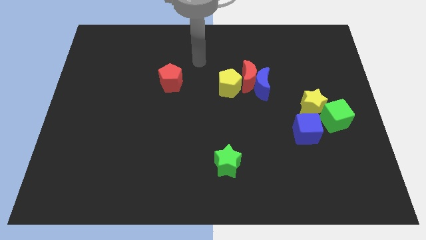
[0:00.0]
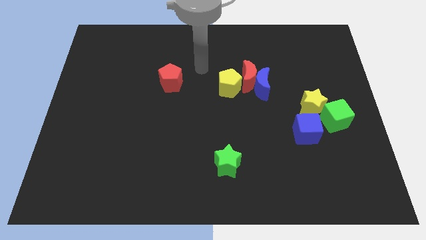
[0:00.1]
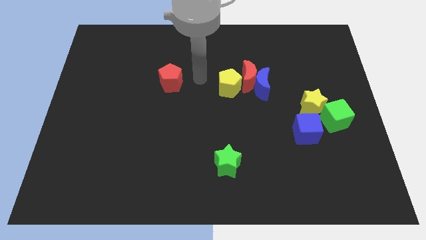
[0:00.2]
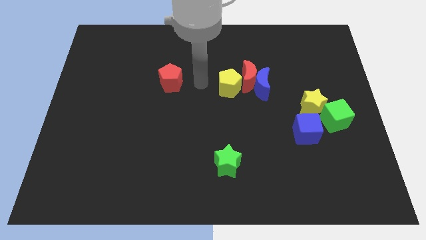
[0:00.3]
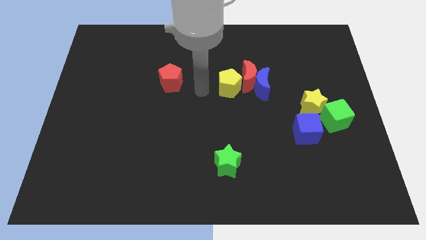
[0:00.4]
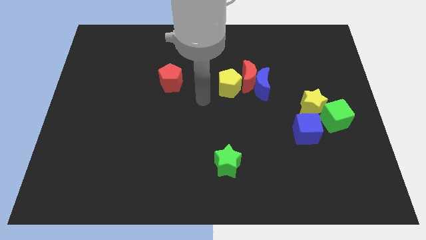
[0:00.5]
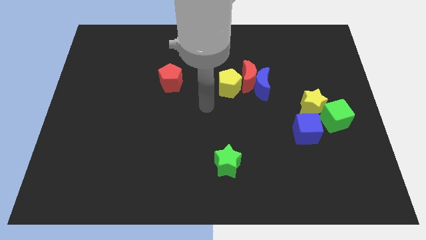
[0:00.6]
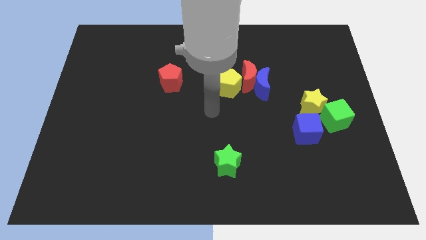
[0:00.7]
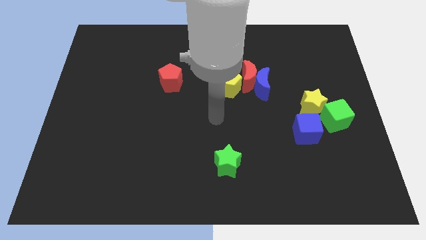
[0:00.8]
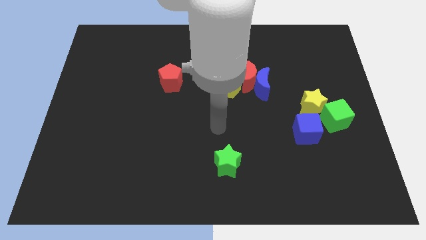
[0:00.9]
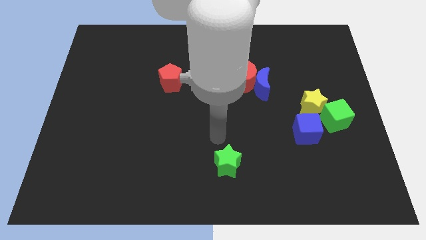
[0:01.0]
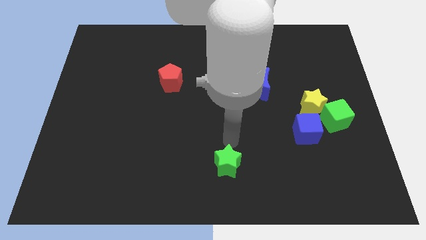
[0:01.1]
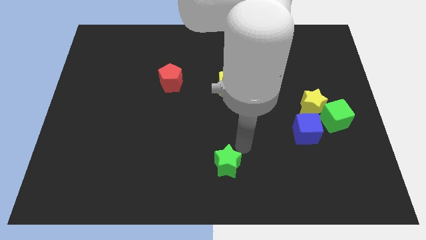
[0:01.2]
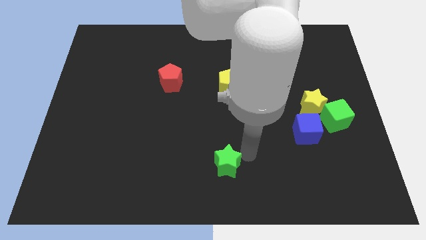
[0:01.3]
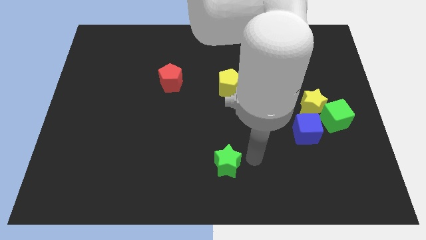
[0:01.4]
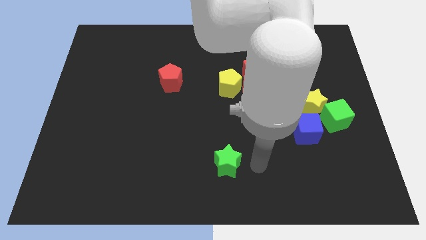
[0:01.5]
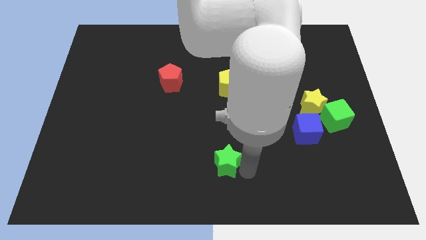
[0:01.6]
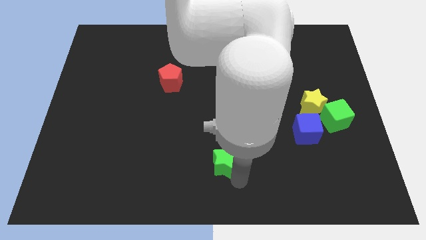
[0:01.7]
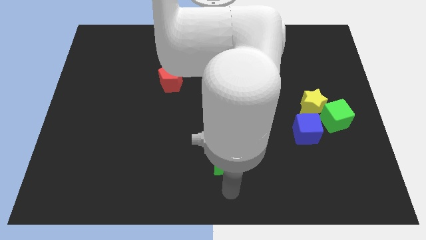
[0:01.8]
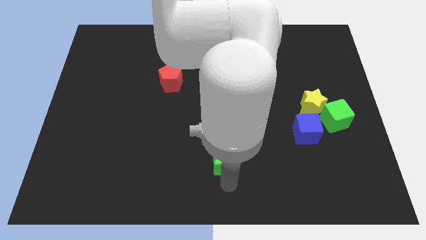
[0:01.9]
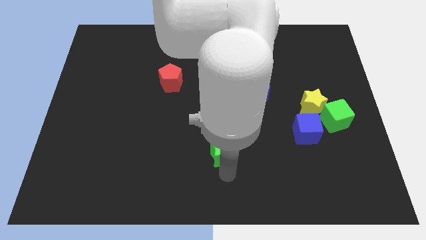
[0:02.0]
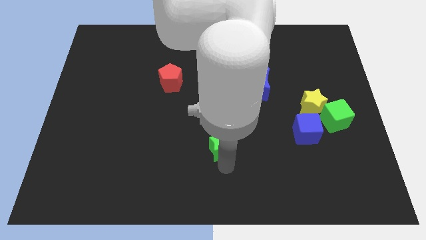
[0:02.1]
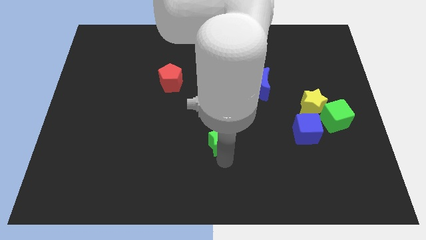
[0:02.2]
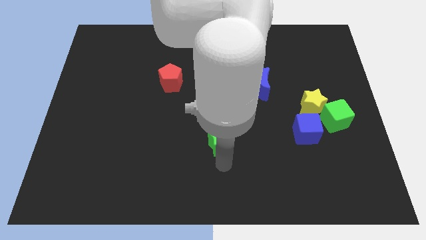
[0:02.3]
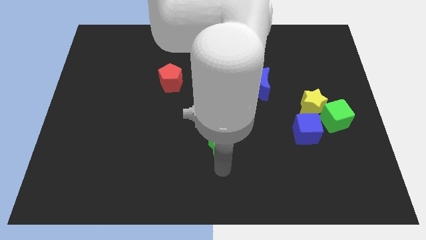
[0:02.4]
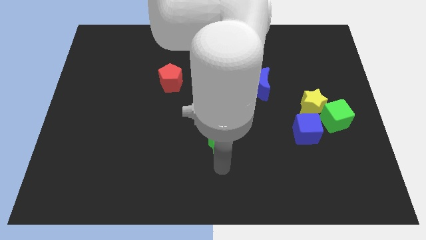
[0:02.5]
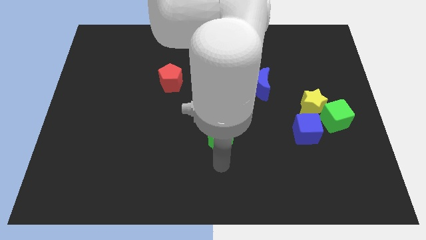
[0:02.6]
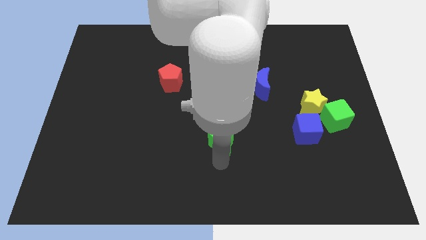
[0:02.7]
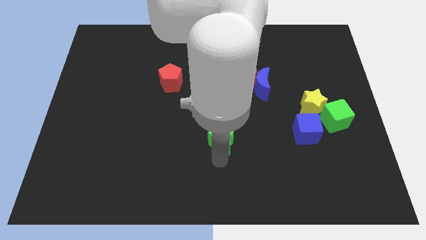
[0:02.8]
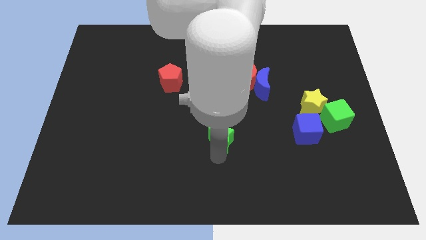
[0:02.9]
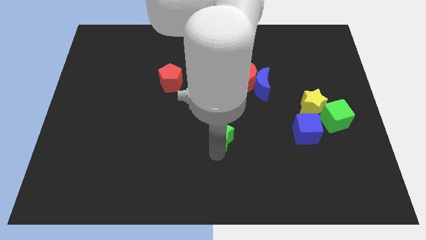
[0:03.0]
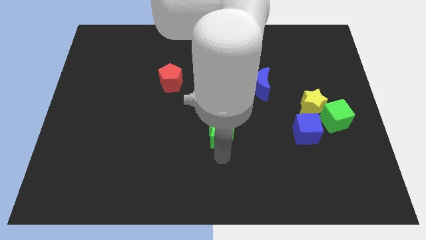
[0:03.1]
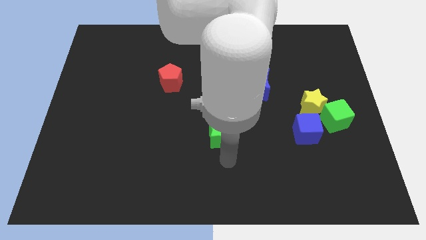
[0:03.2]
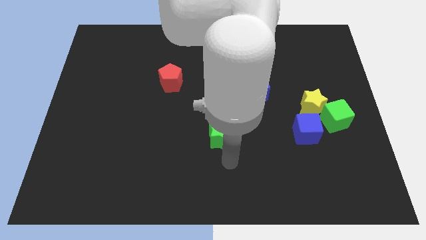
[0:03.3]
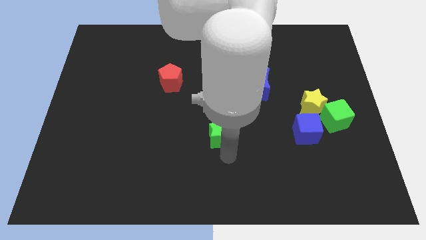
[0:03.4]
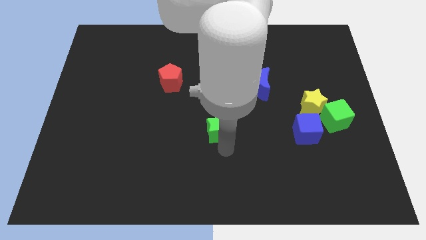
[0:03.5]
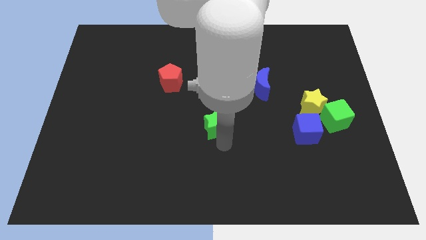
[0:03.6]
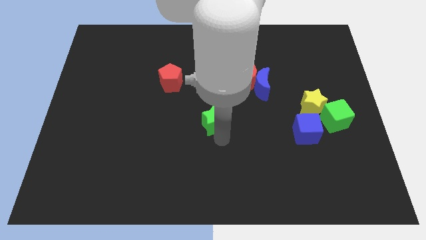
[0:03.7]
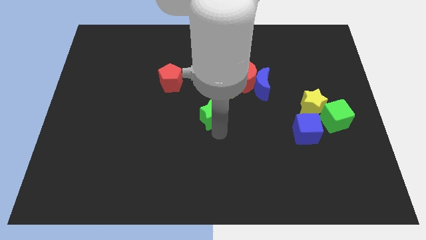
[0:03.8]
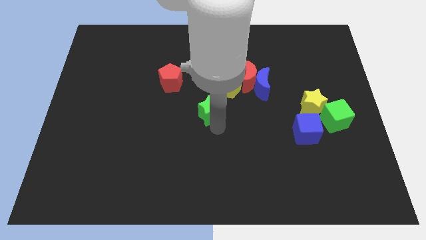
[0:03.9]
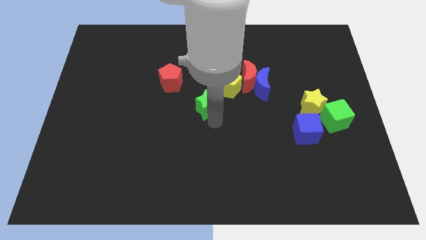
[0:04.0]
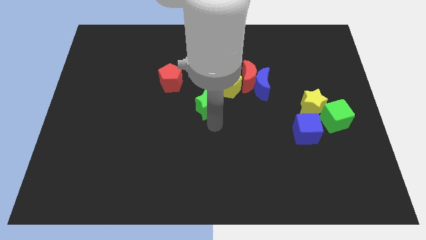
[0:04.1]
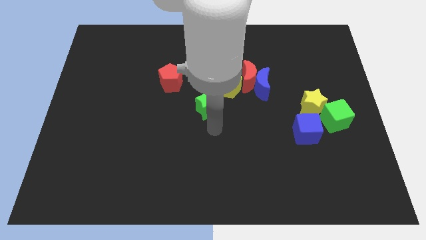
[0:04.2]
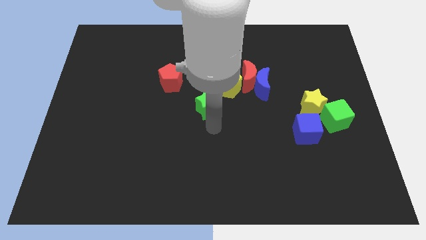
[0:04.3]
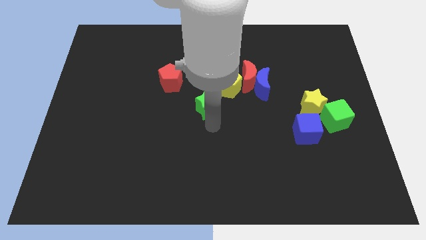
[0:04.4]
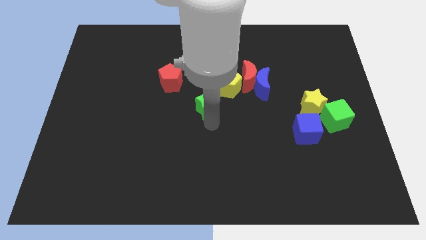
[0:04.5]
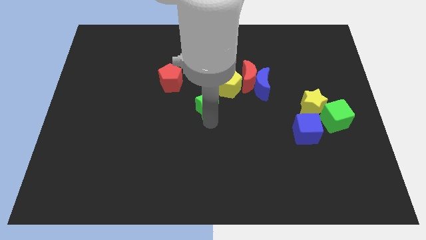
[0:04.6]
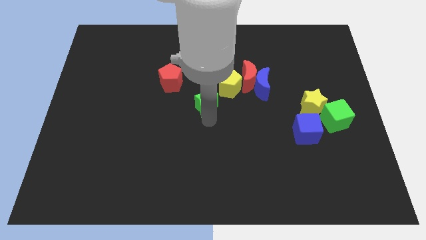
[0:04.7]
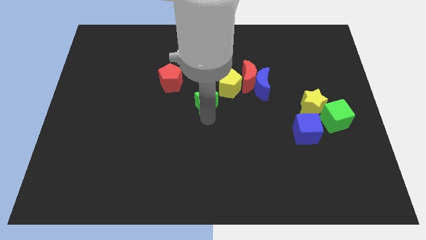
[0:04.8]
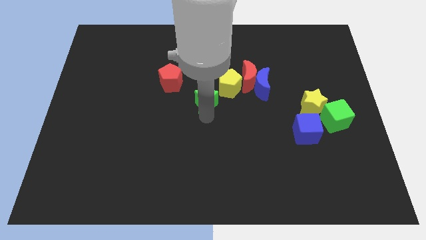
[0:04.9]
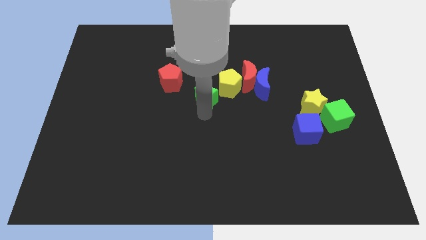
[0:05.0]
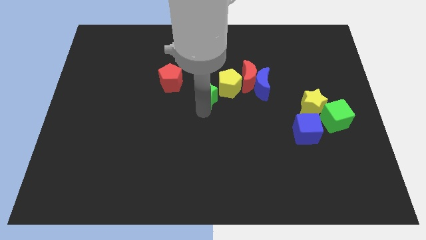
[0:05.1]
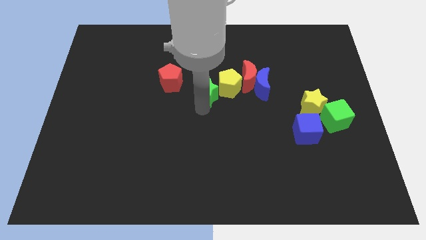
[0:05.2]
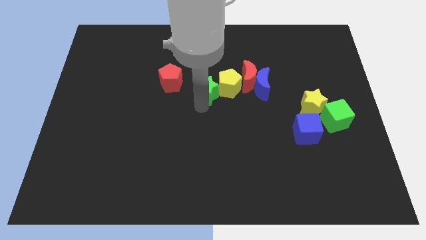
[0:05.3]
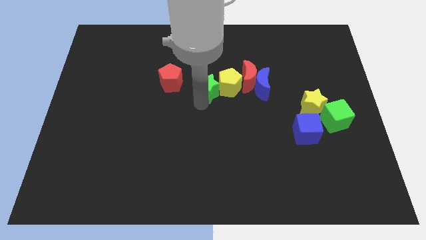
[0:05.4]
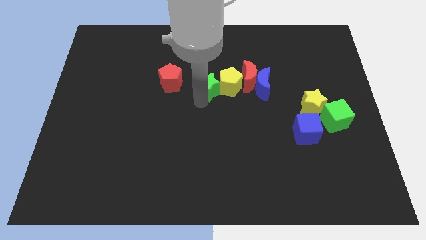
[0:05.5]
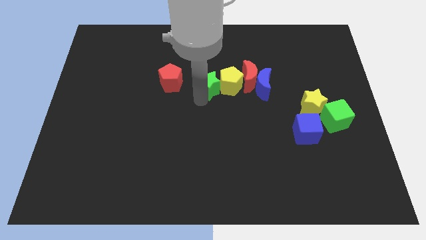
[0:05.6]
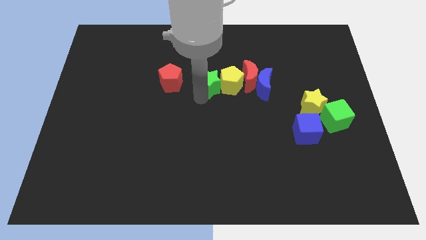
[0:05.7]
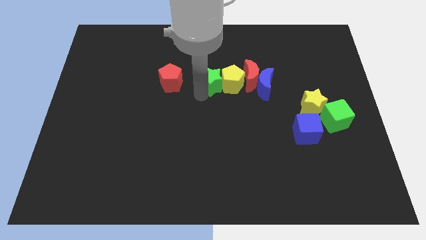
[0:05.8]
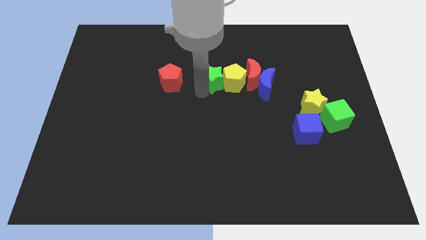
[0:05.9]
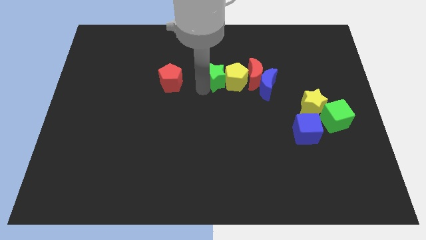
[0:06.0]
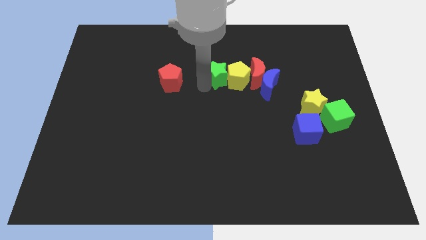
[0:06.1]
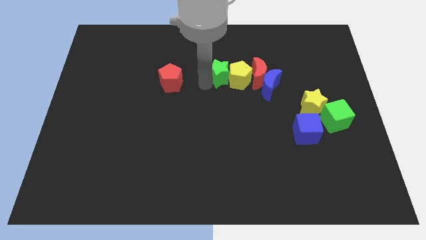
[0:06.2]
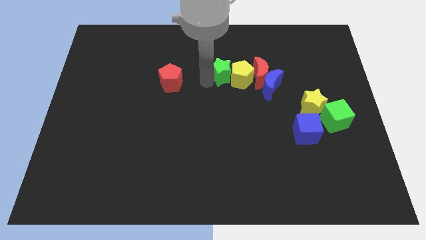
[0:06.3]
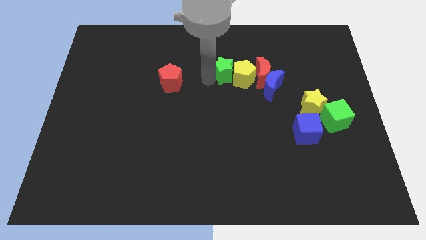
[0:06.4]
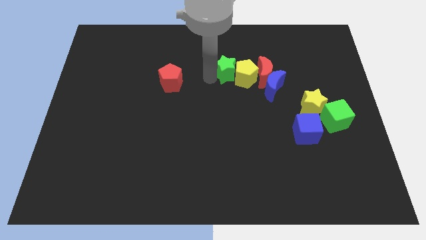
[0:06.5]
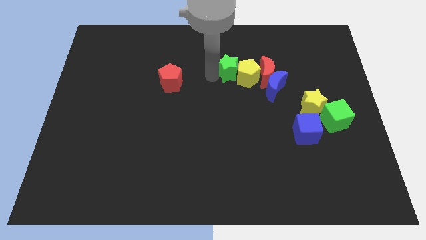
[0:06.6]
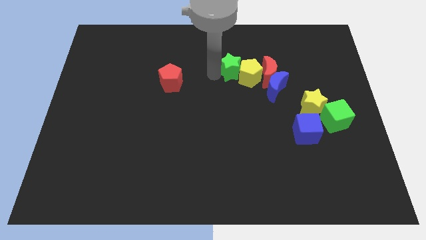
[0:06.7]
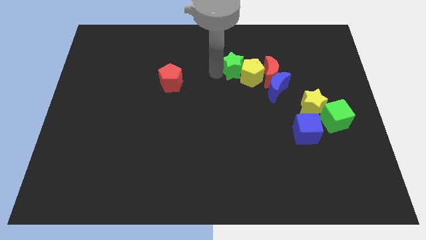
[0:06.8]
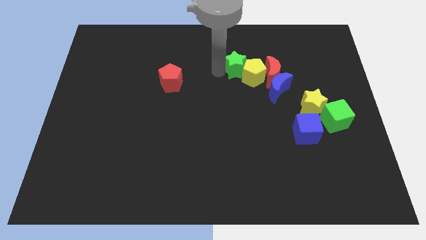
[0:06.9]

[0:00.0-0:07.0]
slide the green star diagonally up and to the left of the red moon

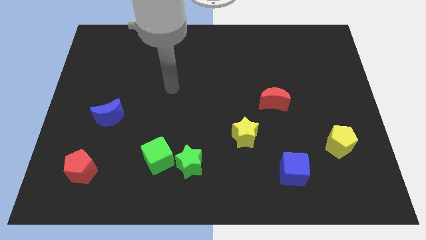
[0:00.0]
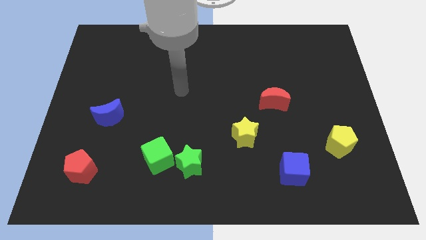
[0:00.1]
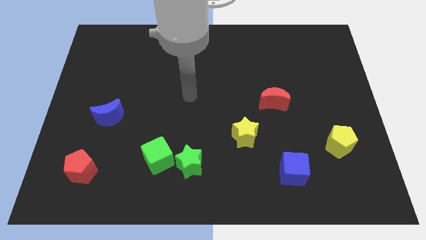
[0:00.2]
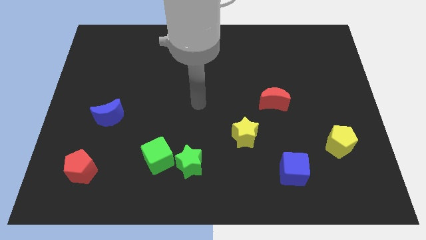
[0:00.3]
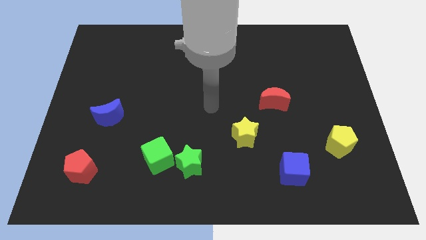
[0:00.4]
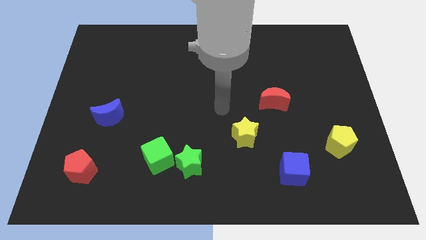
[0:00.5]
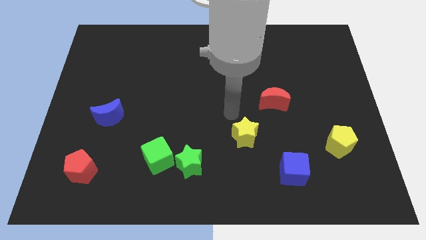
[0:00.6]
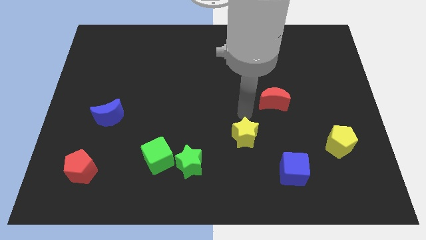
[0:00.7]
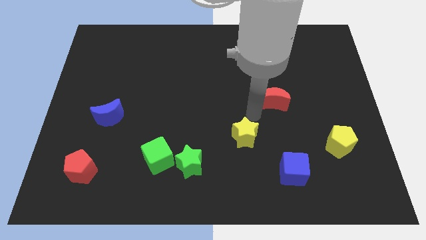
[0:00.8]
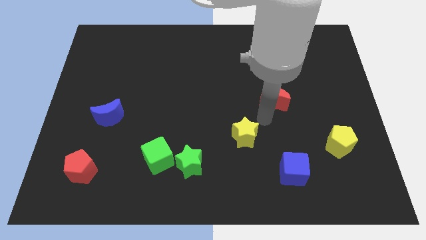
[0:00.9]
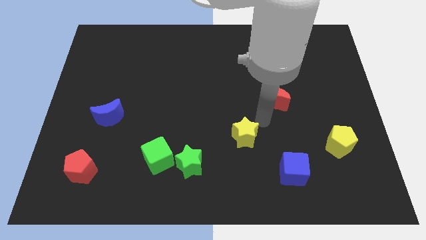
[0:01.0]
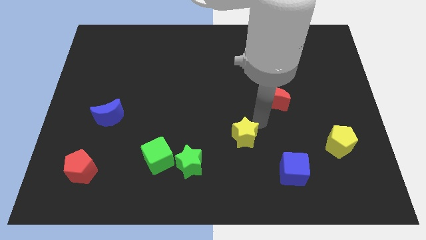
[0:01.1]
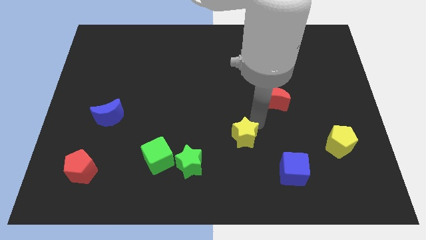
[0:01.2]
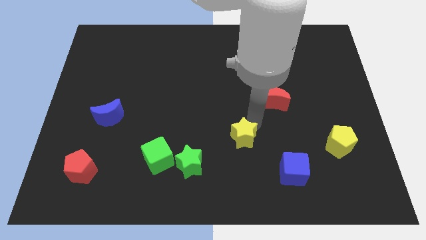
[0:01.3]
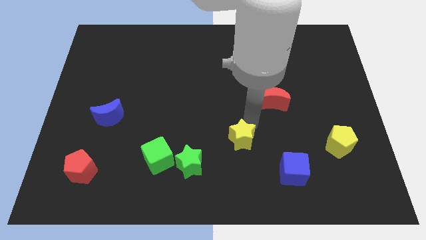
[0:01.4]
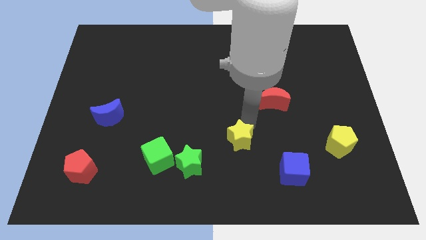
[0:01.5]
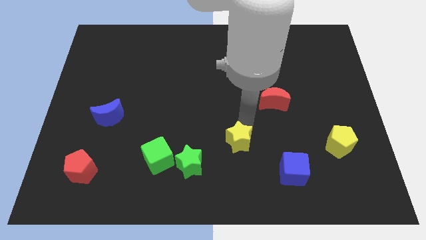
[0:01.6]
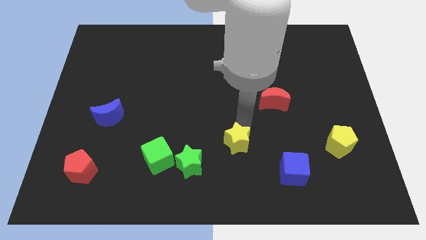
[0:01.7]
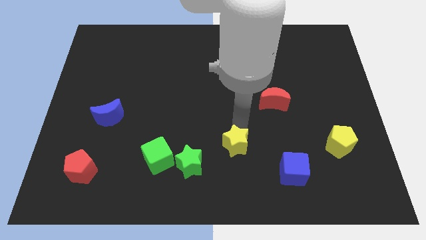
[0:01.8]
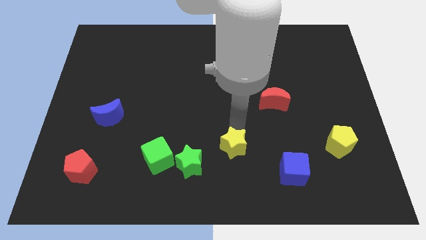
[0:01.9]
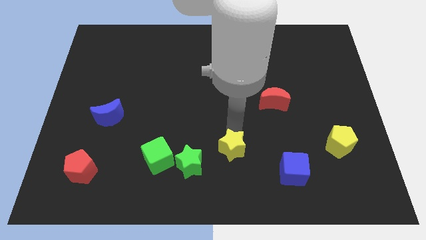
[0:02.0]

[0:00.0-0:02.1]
put the yellow star just right of the green cube
